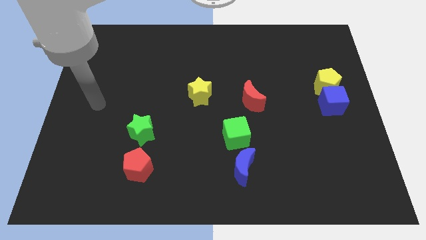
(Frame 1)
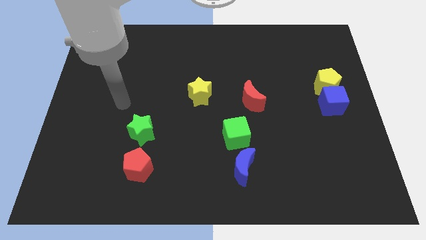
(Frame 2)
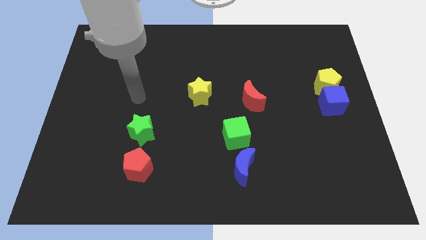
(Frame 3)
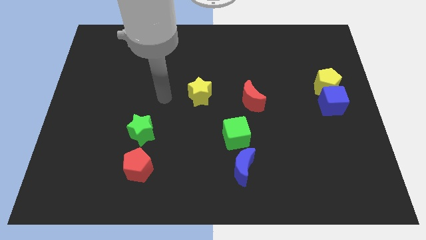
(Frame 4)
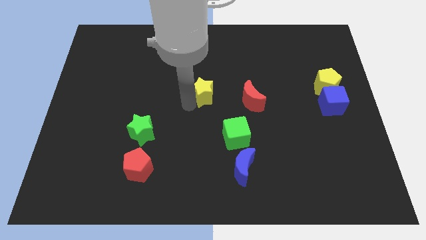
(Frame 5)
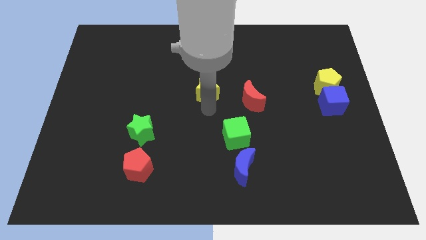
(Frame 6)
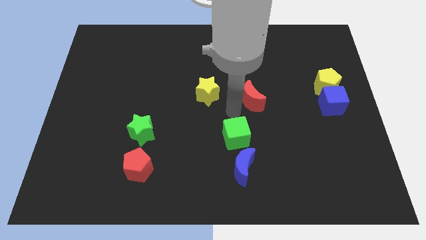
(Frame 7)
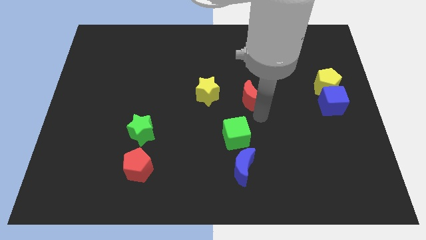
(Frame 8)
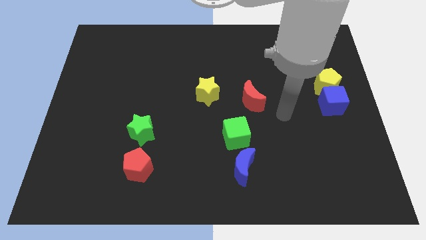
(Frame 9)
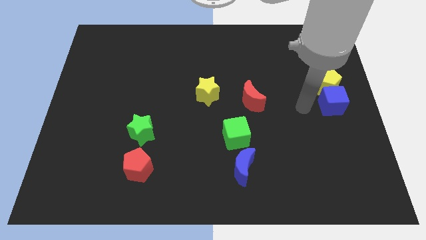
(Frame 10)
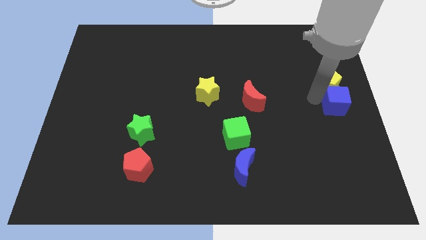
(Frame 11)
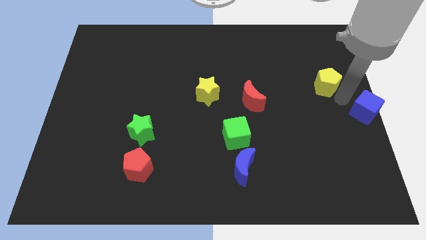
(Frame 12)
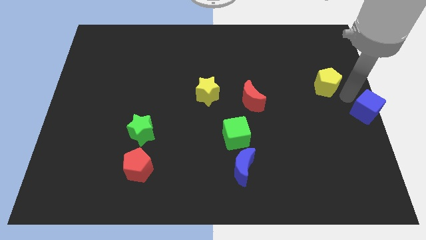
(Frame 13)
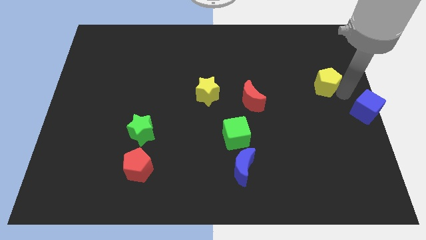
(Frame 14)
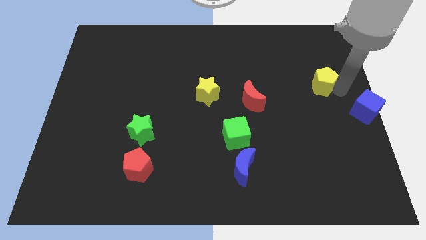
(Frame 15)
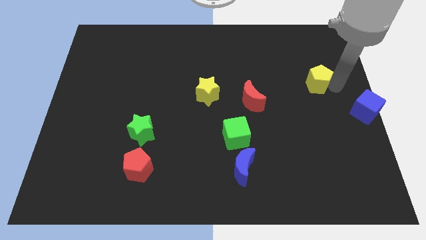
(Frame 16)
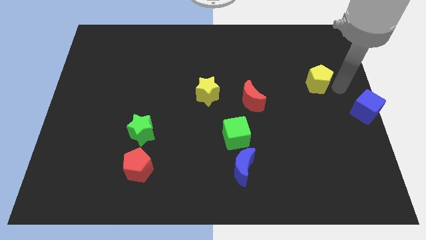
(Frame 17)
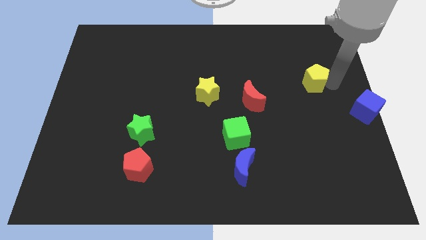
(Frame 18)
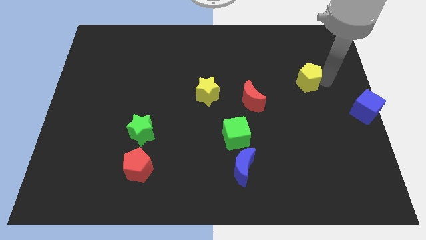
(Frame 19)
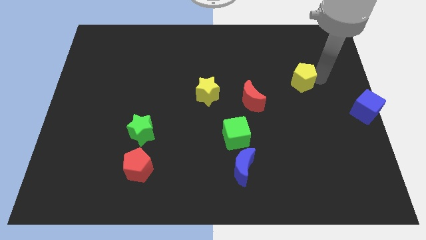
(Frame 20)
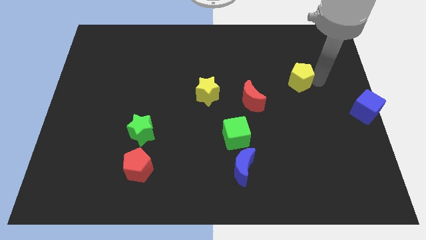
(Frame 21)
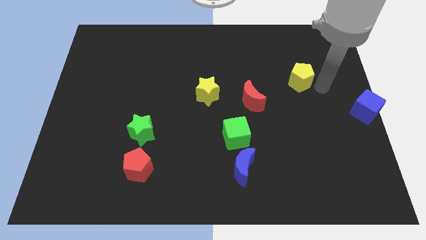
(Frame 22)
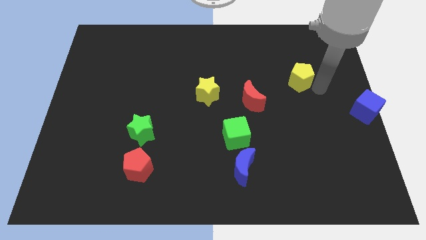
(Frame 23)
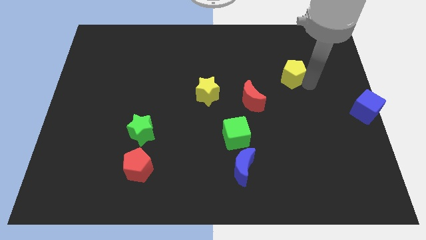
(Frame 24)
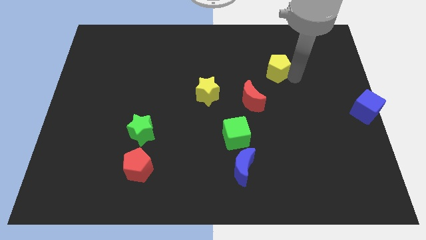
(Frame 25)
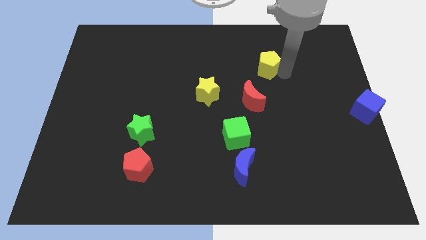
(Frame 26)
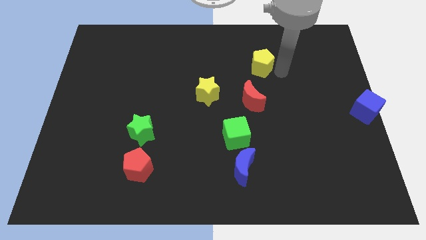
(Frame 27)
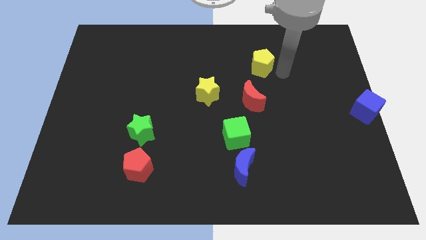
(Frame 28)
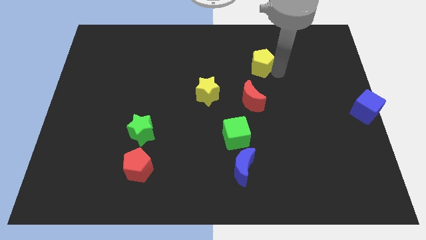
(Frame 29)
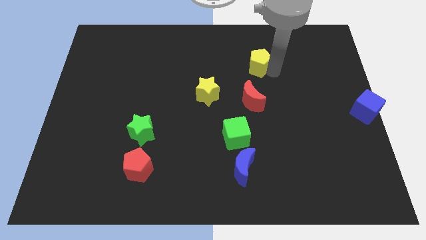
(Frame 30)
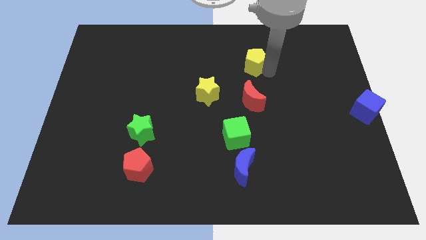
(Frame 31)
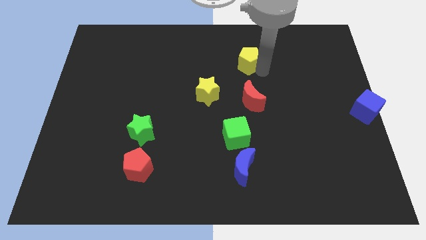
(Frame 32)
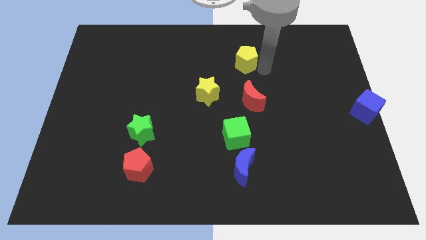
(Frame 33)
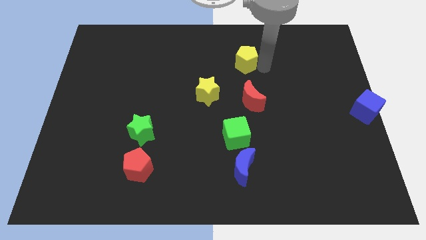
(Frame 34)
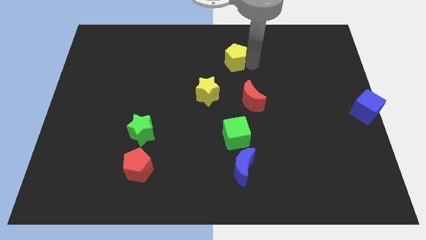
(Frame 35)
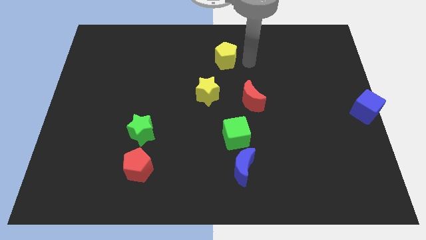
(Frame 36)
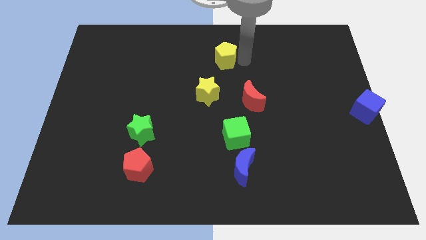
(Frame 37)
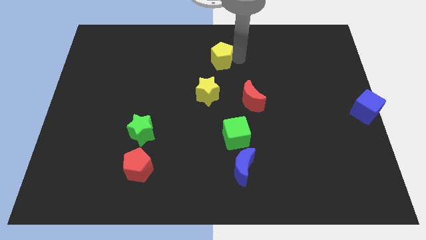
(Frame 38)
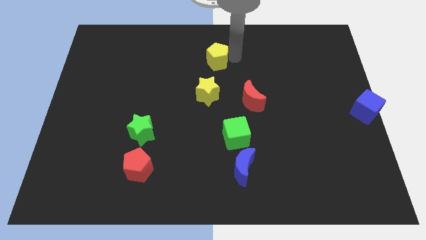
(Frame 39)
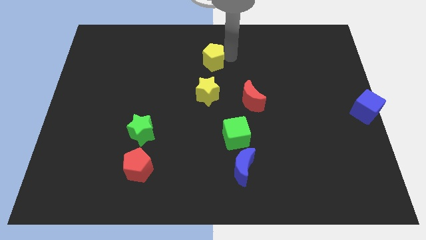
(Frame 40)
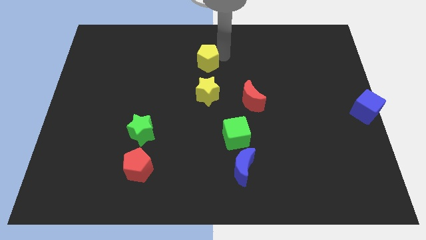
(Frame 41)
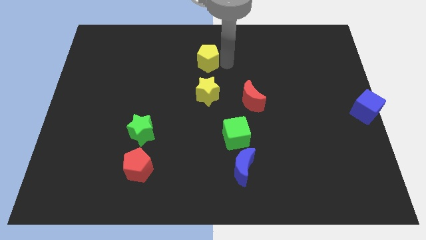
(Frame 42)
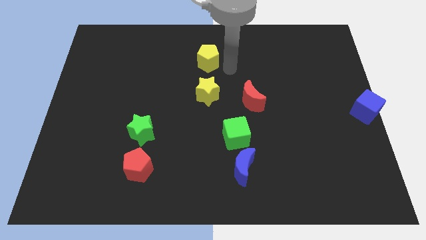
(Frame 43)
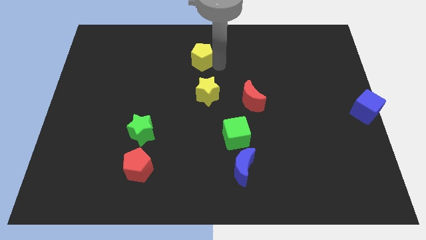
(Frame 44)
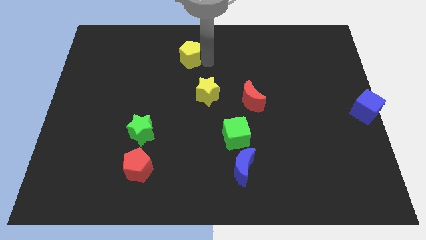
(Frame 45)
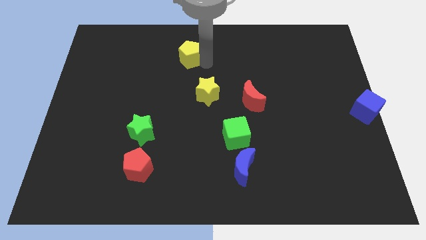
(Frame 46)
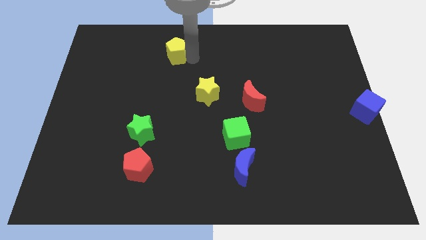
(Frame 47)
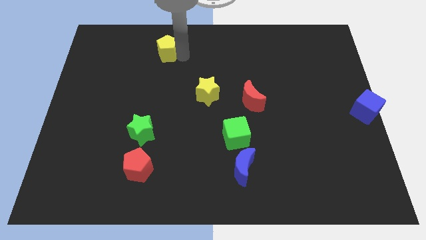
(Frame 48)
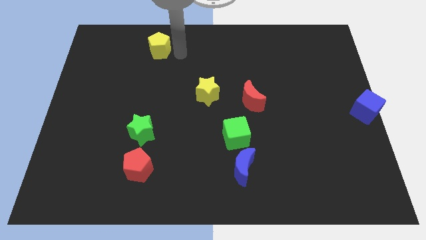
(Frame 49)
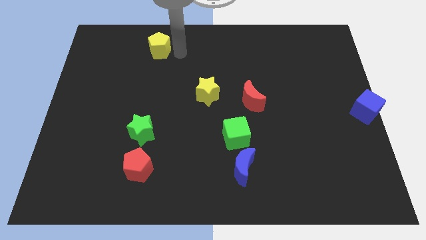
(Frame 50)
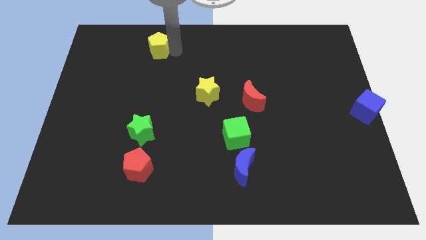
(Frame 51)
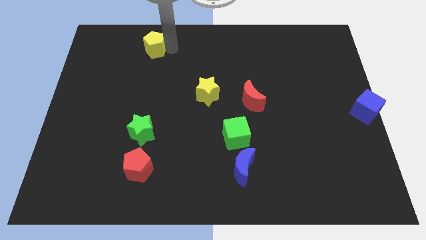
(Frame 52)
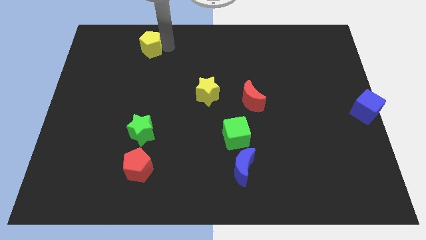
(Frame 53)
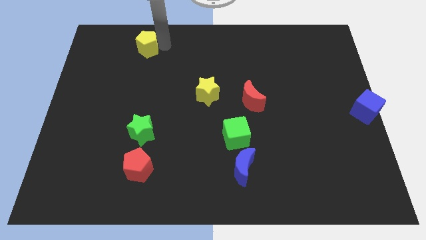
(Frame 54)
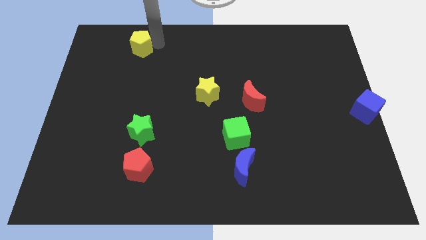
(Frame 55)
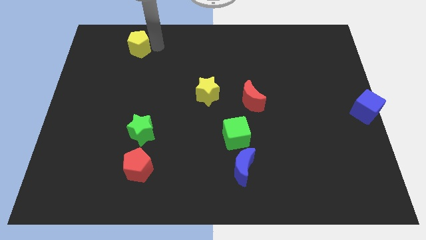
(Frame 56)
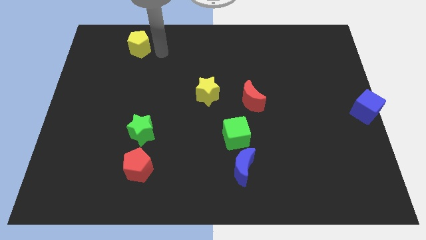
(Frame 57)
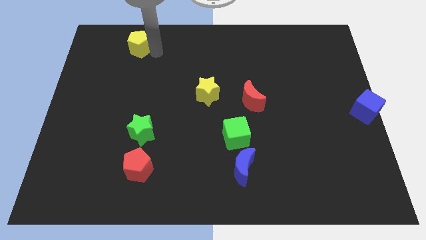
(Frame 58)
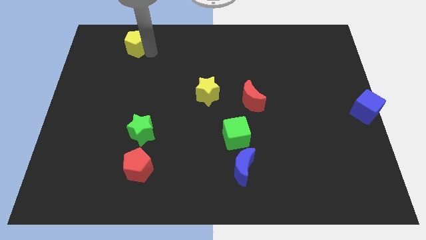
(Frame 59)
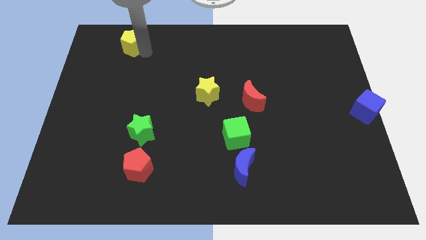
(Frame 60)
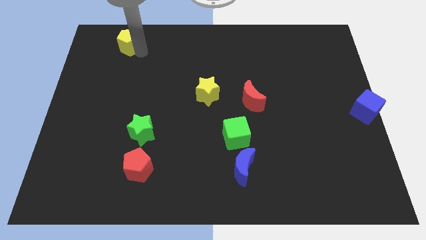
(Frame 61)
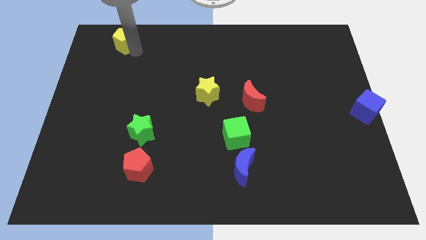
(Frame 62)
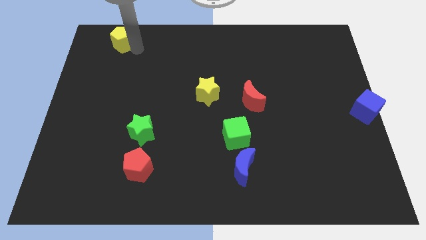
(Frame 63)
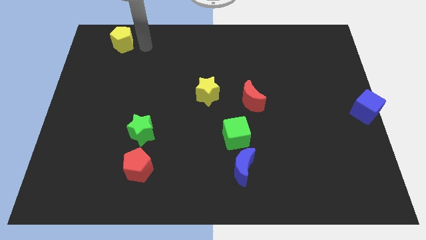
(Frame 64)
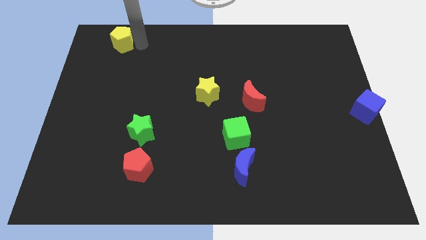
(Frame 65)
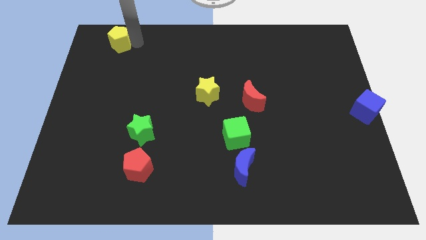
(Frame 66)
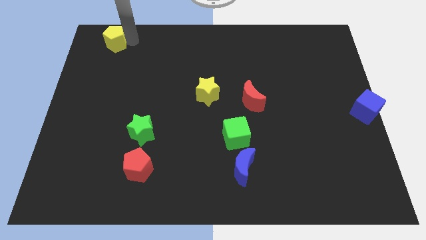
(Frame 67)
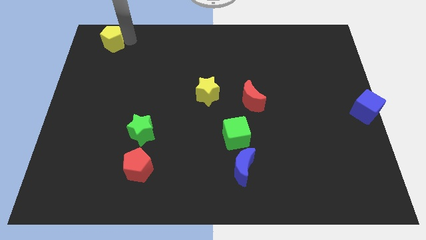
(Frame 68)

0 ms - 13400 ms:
move the yellow pentagon to the top left of the board

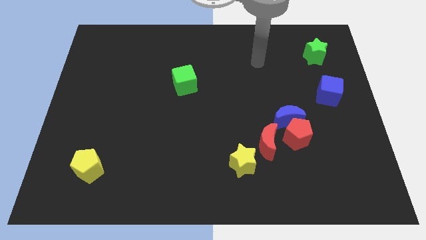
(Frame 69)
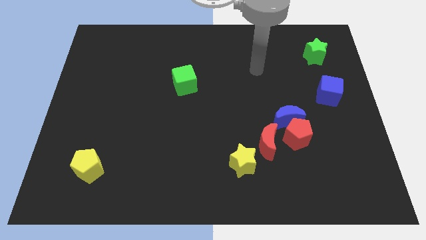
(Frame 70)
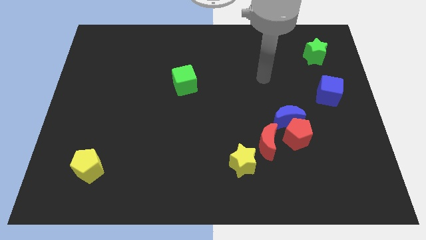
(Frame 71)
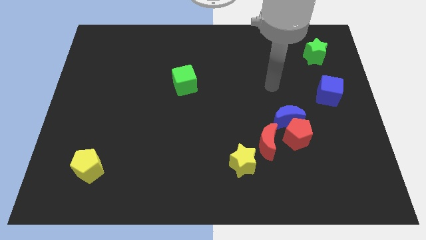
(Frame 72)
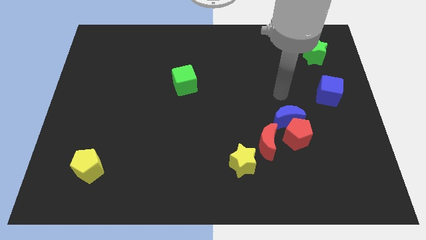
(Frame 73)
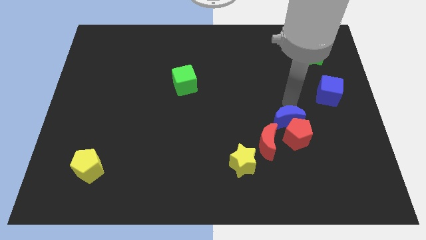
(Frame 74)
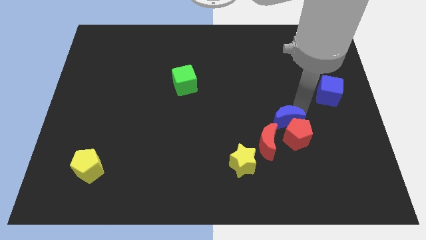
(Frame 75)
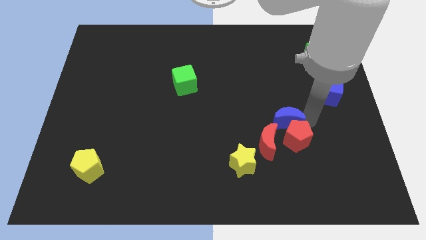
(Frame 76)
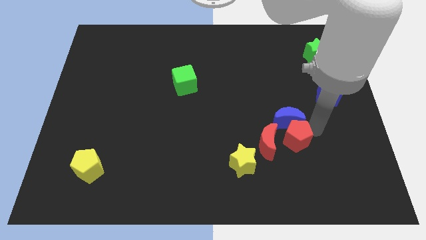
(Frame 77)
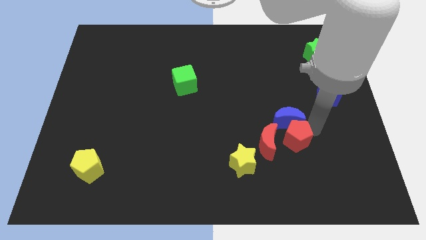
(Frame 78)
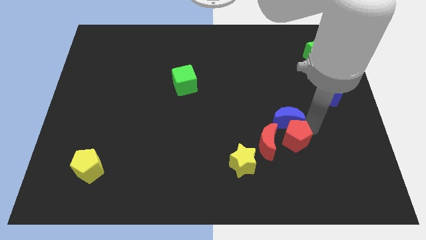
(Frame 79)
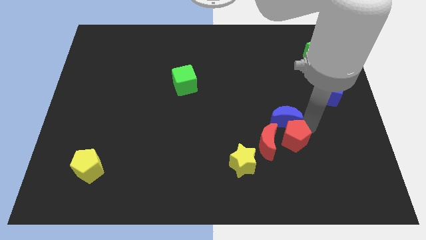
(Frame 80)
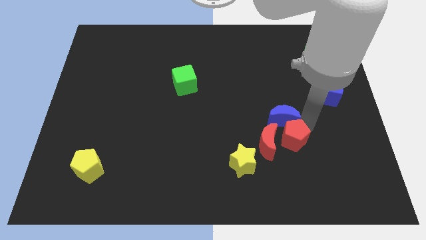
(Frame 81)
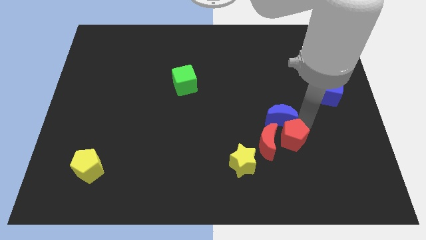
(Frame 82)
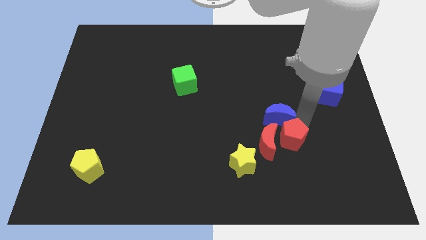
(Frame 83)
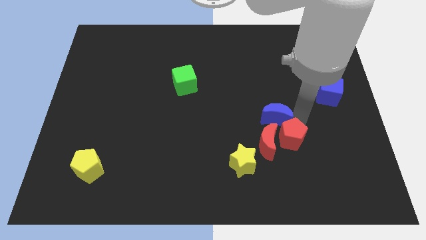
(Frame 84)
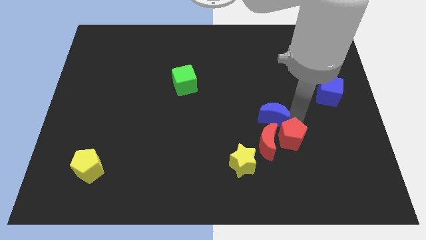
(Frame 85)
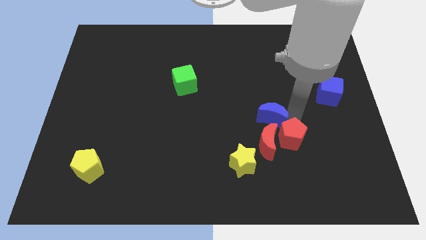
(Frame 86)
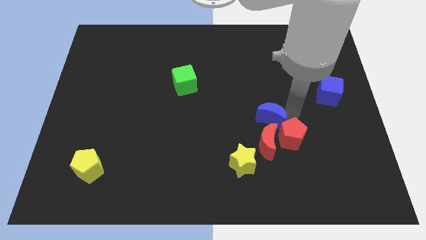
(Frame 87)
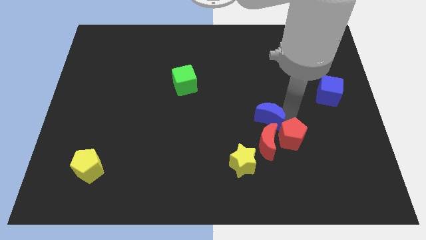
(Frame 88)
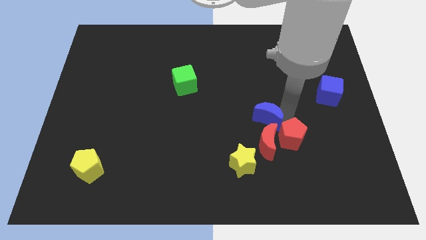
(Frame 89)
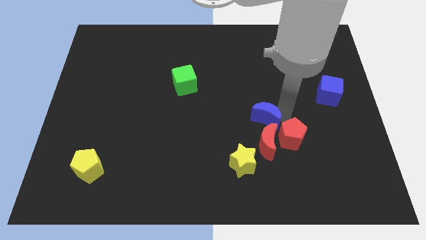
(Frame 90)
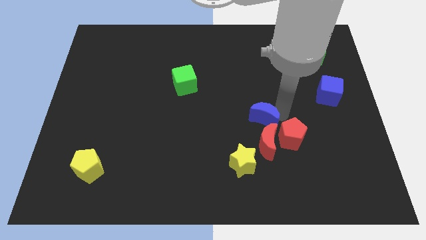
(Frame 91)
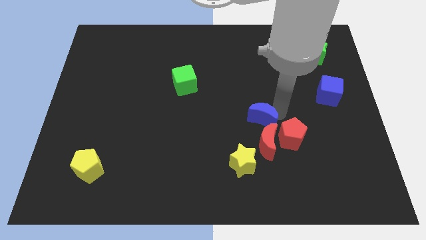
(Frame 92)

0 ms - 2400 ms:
slide the blue moon to the middle of the board
